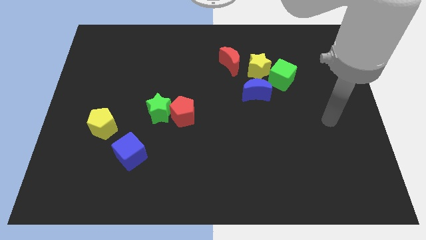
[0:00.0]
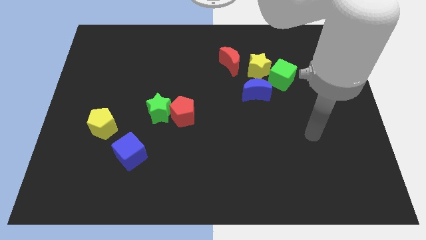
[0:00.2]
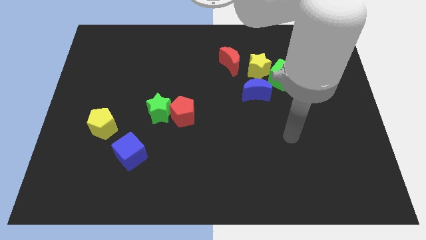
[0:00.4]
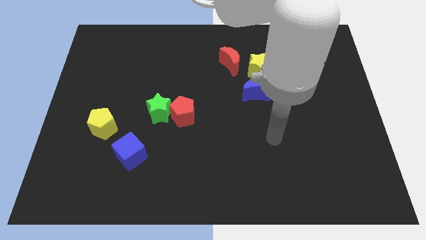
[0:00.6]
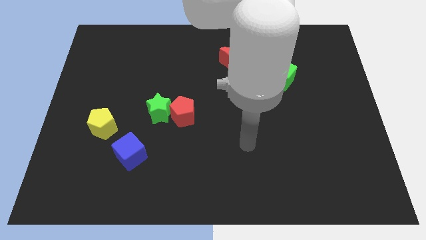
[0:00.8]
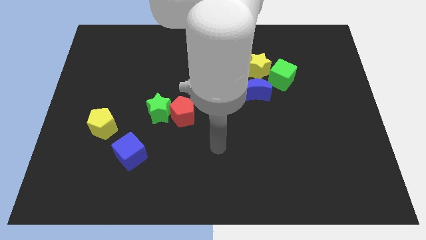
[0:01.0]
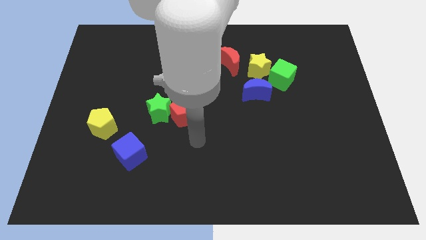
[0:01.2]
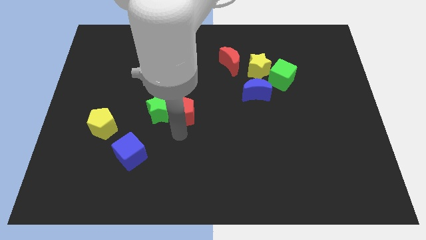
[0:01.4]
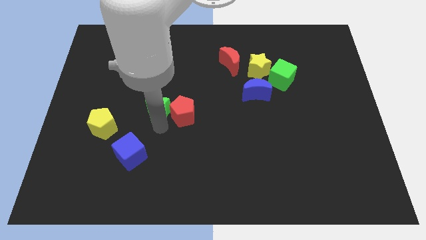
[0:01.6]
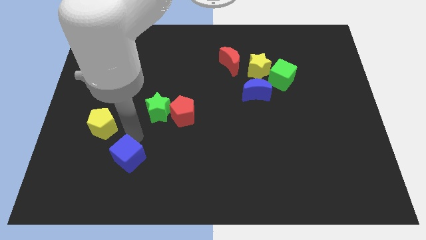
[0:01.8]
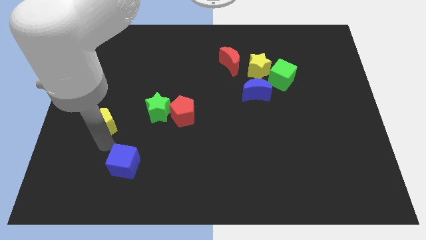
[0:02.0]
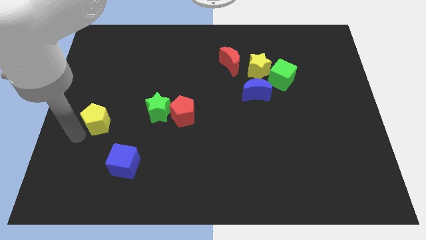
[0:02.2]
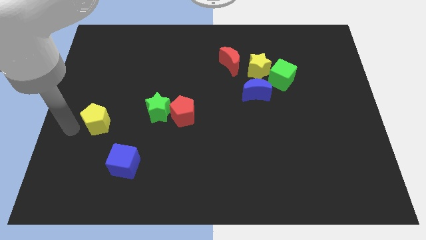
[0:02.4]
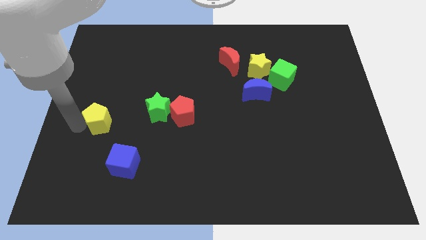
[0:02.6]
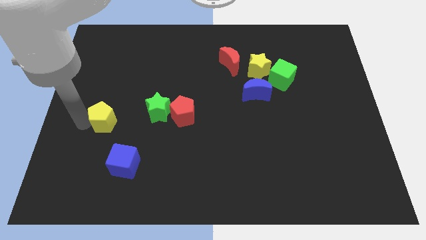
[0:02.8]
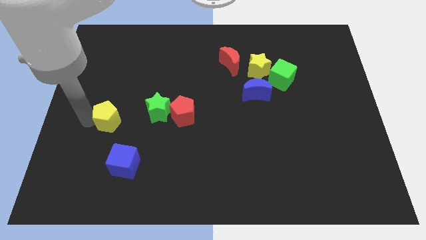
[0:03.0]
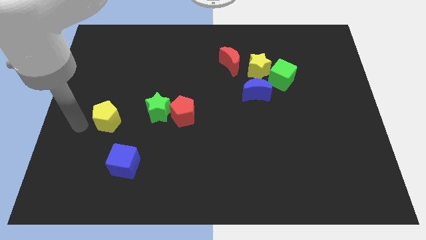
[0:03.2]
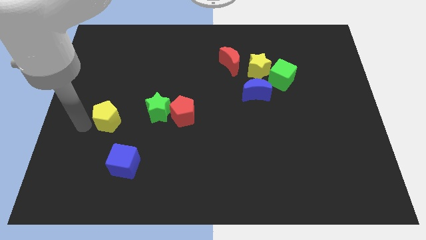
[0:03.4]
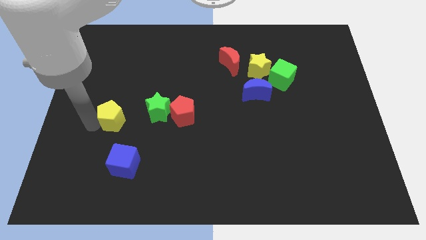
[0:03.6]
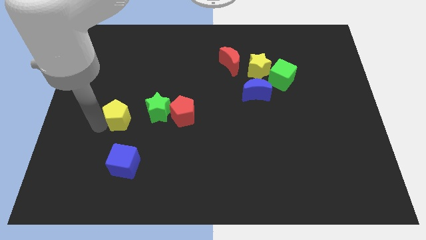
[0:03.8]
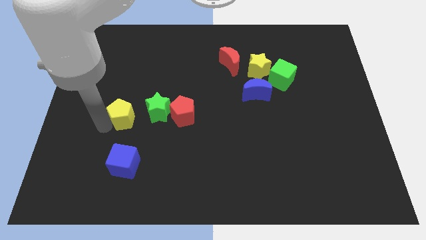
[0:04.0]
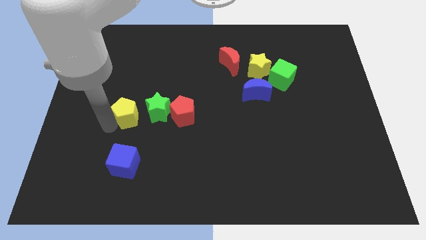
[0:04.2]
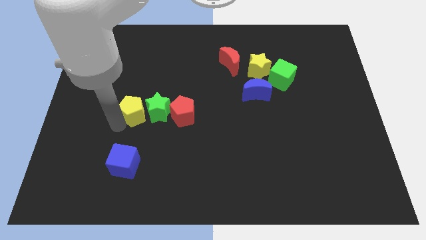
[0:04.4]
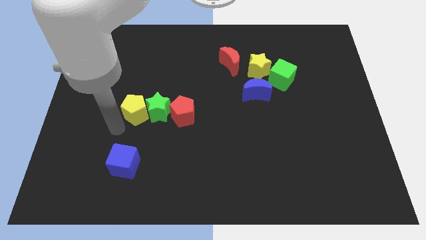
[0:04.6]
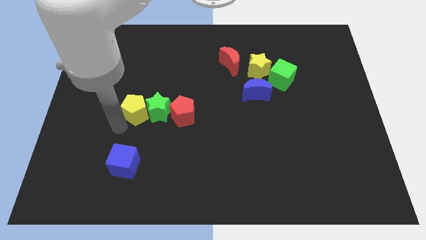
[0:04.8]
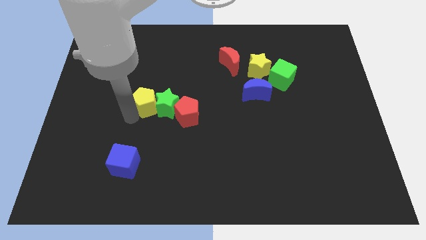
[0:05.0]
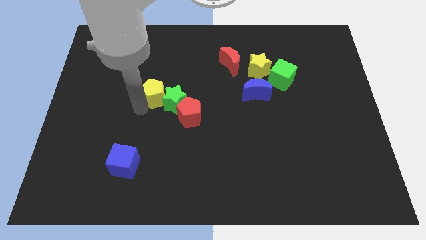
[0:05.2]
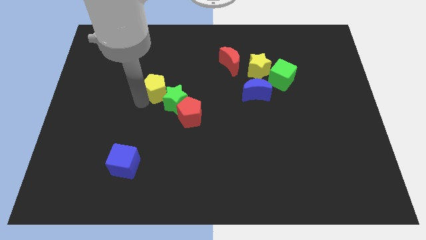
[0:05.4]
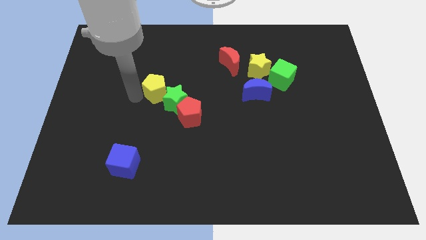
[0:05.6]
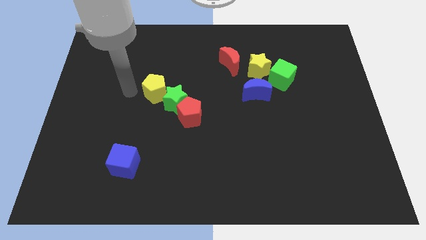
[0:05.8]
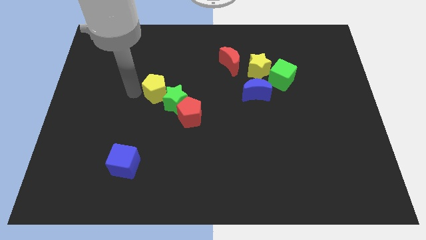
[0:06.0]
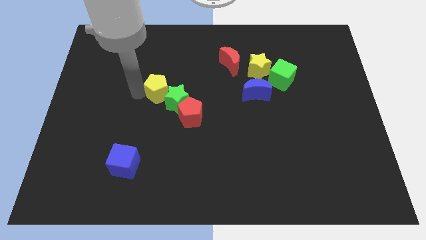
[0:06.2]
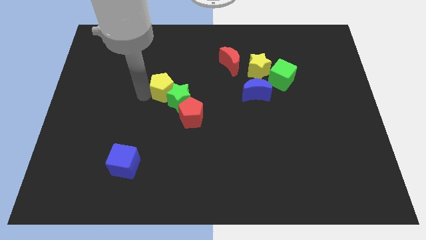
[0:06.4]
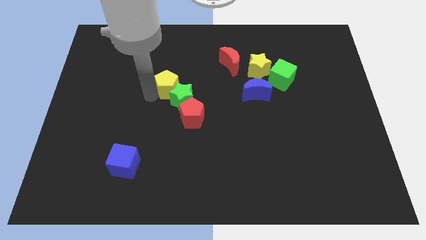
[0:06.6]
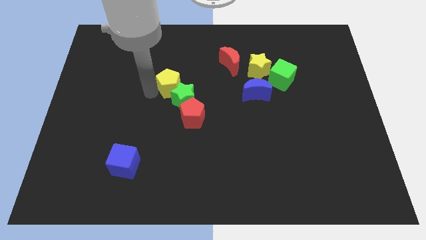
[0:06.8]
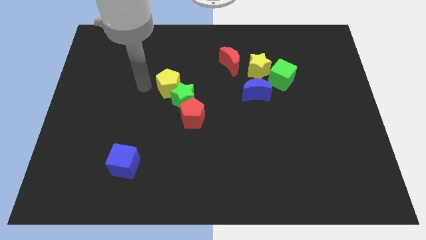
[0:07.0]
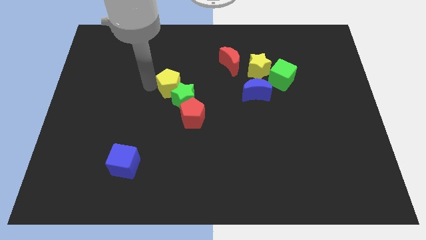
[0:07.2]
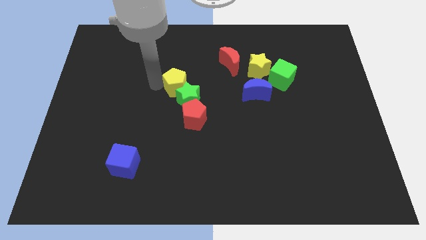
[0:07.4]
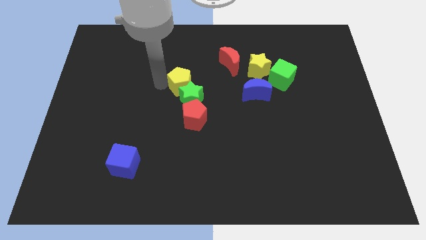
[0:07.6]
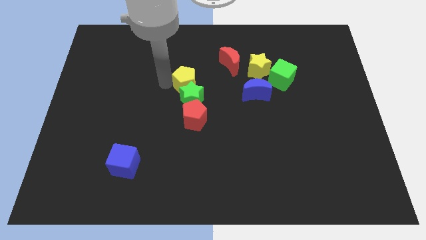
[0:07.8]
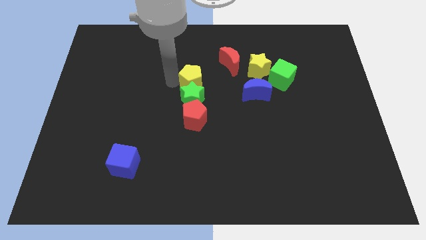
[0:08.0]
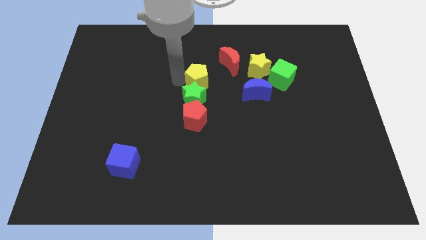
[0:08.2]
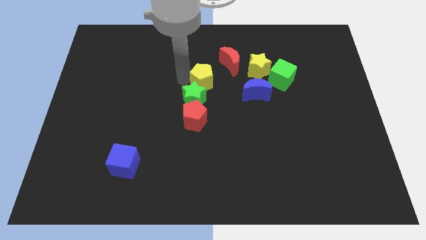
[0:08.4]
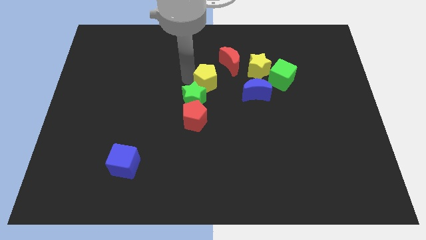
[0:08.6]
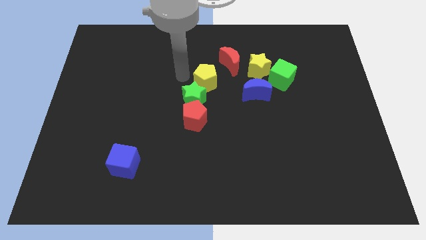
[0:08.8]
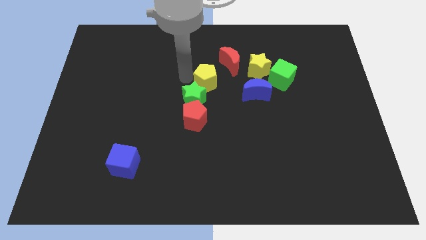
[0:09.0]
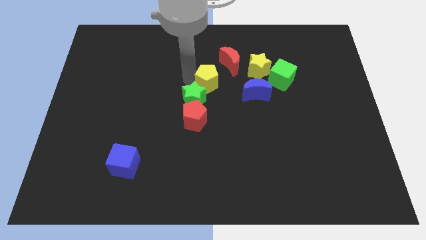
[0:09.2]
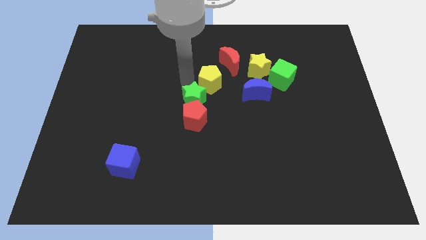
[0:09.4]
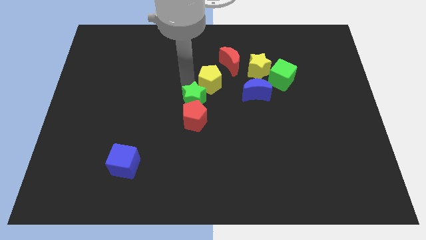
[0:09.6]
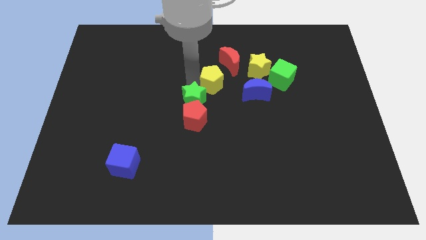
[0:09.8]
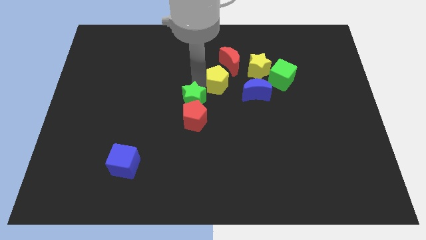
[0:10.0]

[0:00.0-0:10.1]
push the yellow pentagon diagonally down and to the left of the yellow star

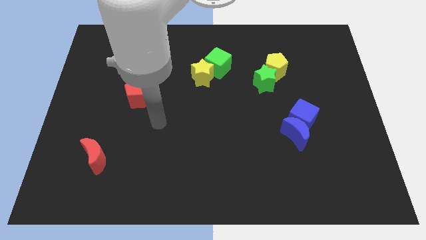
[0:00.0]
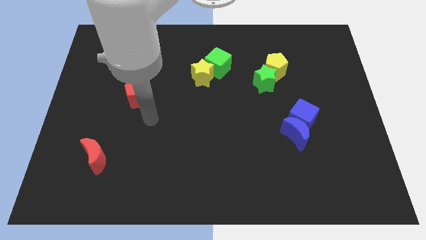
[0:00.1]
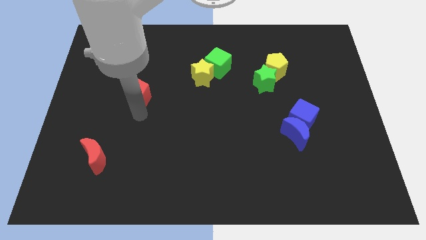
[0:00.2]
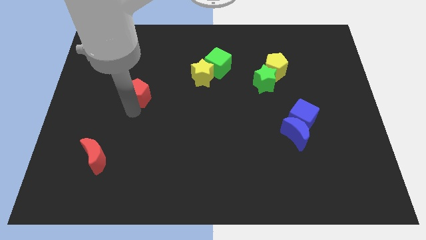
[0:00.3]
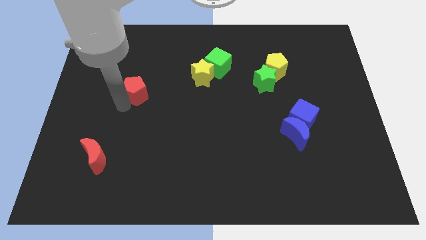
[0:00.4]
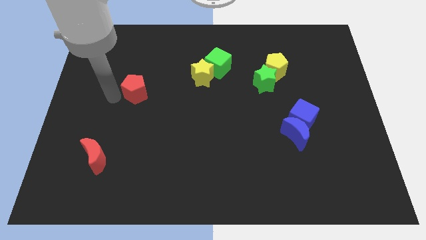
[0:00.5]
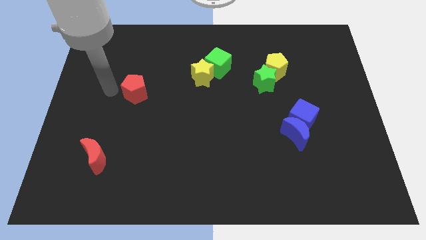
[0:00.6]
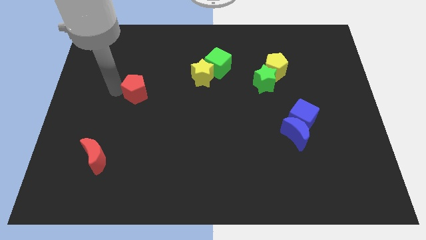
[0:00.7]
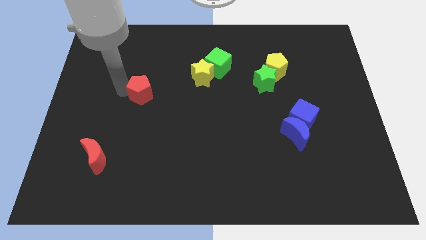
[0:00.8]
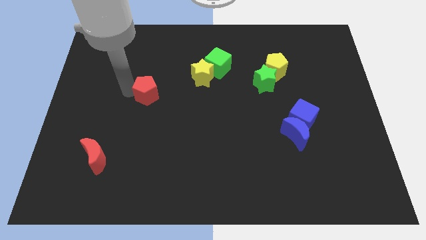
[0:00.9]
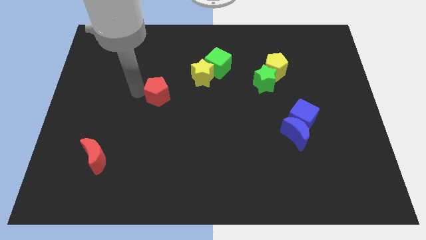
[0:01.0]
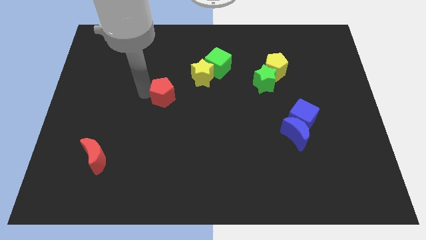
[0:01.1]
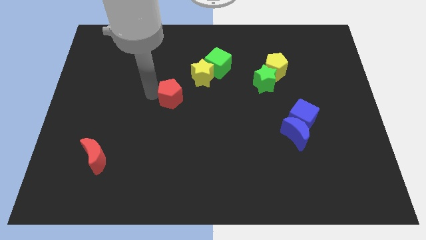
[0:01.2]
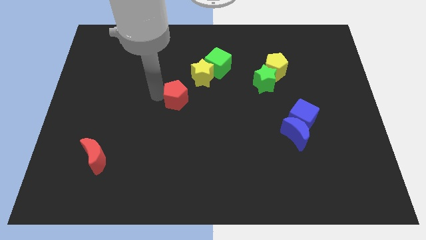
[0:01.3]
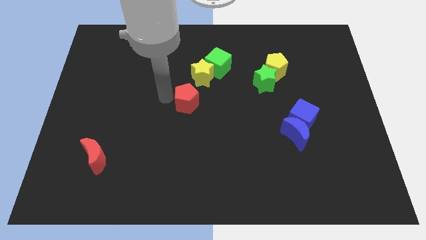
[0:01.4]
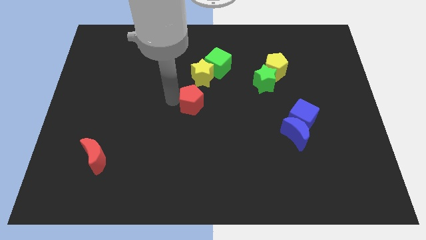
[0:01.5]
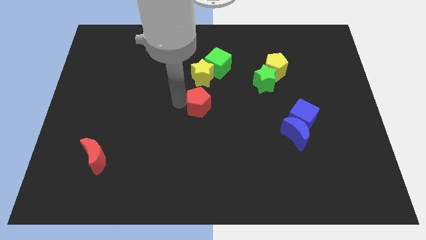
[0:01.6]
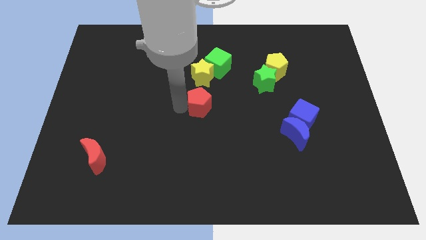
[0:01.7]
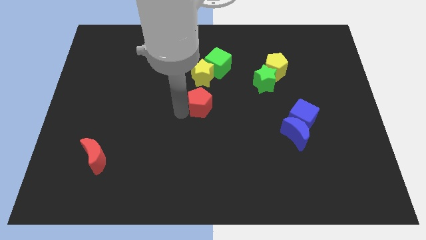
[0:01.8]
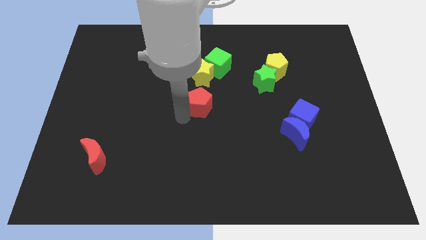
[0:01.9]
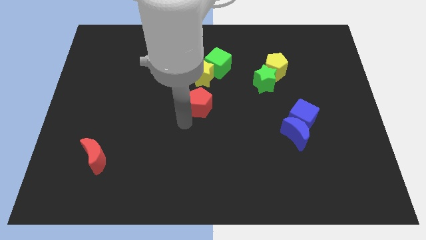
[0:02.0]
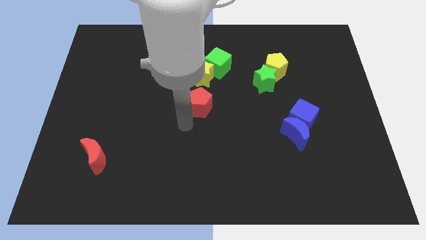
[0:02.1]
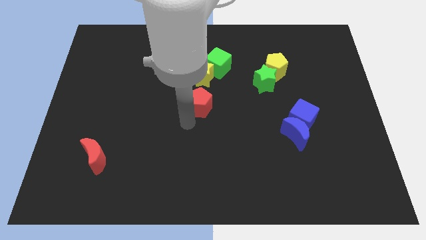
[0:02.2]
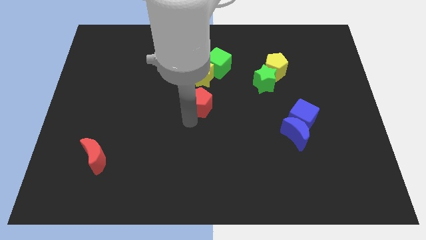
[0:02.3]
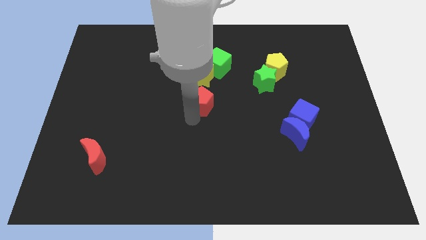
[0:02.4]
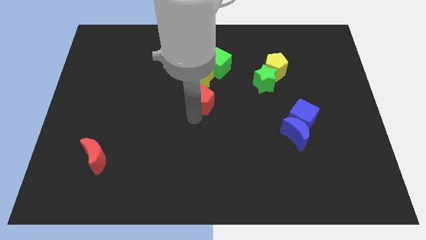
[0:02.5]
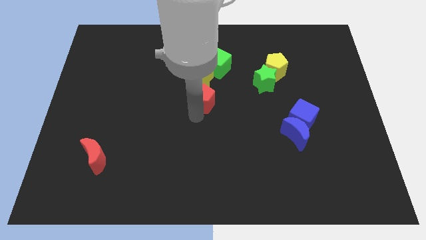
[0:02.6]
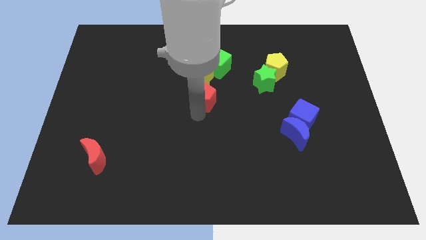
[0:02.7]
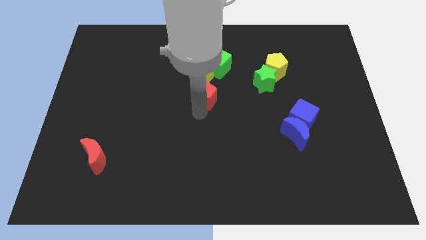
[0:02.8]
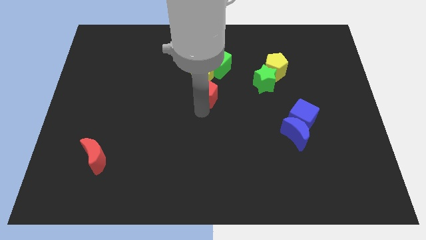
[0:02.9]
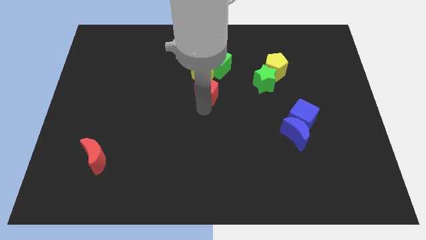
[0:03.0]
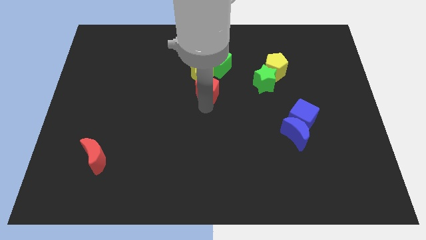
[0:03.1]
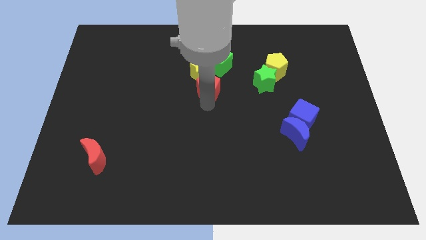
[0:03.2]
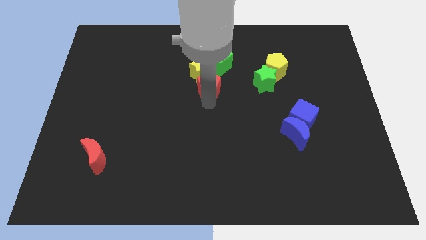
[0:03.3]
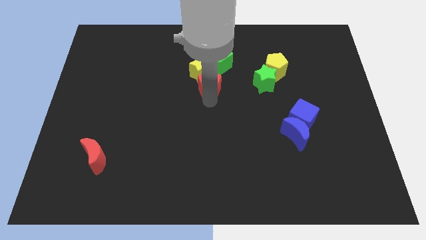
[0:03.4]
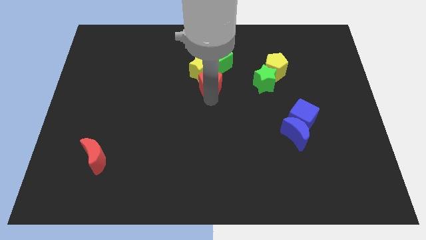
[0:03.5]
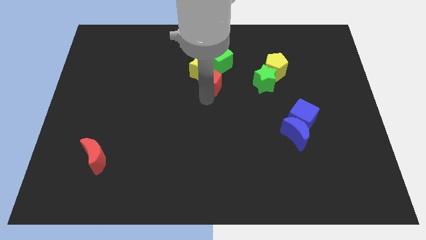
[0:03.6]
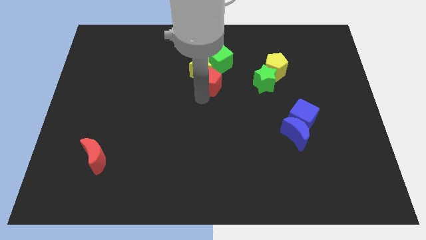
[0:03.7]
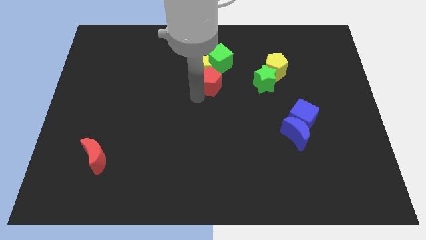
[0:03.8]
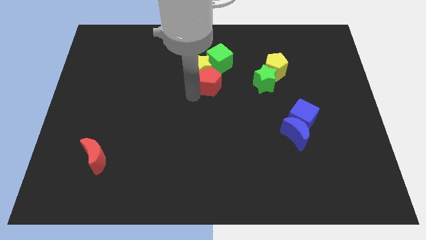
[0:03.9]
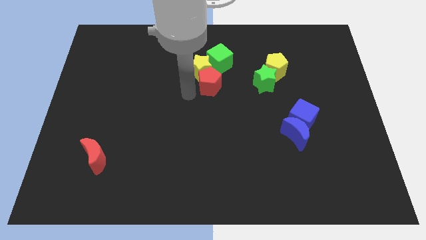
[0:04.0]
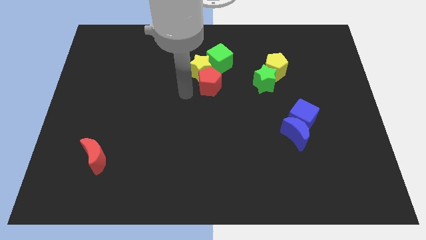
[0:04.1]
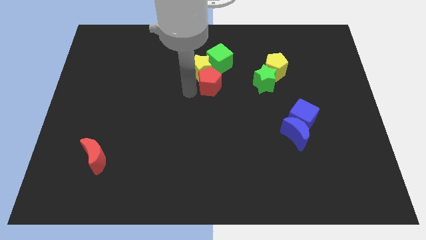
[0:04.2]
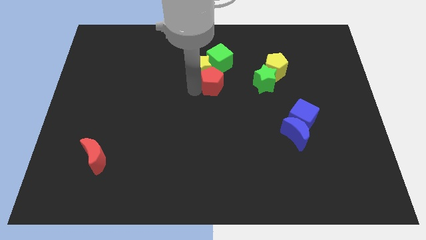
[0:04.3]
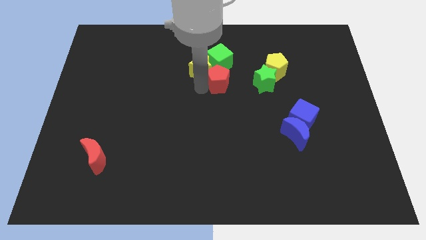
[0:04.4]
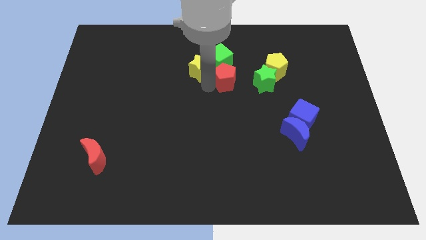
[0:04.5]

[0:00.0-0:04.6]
slide the red pentagon to the left side of the yellow pentagon
